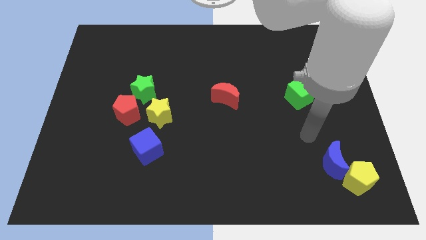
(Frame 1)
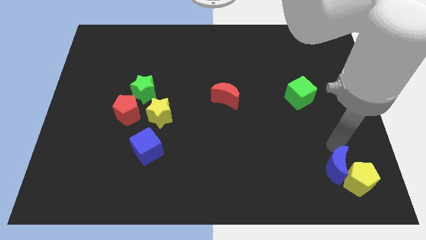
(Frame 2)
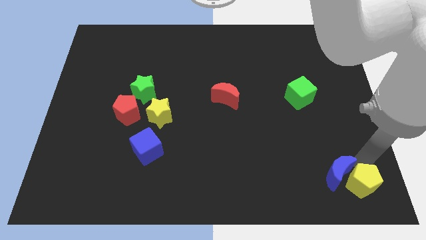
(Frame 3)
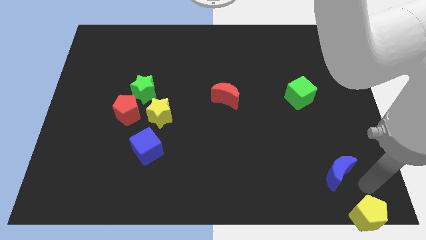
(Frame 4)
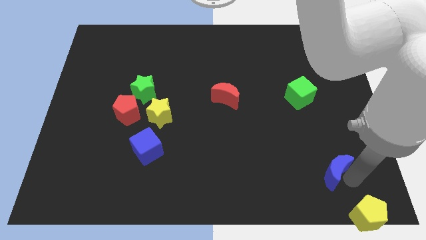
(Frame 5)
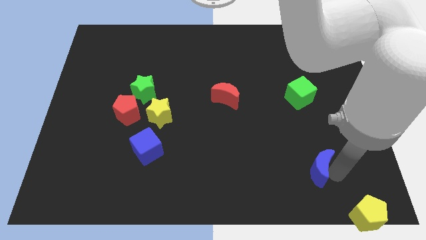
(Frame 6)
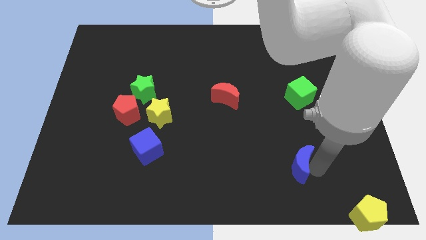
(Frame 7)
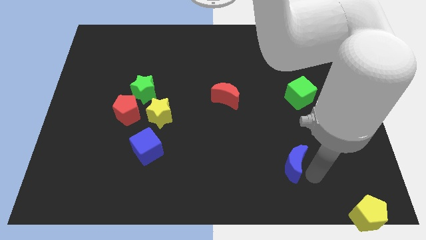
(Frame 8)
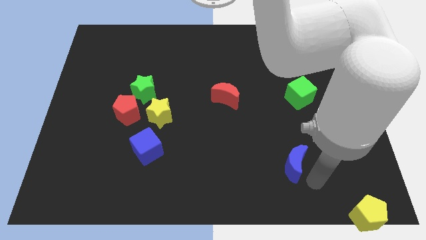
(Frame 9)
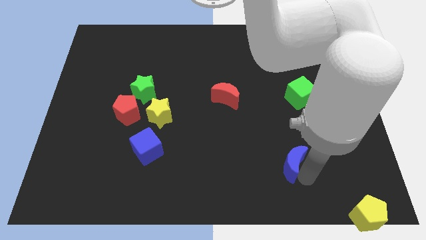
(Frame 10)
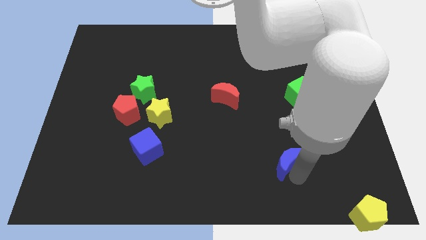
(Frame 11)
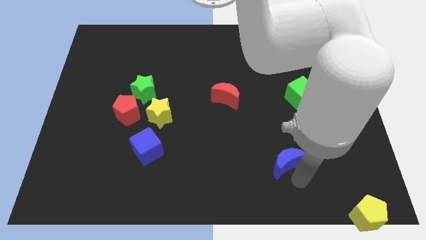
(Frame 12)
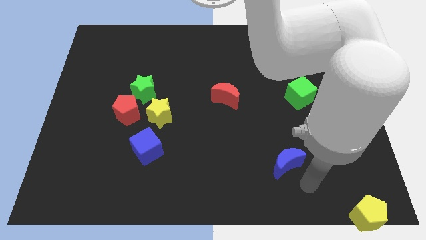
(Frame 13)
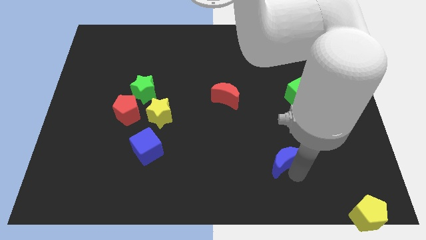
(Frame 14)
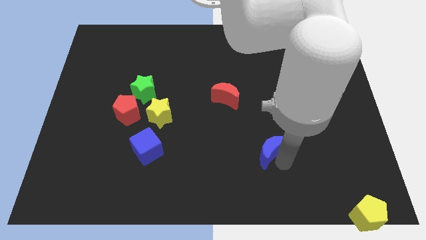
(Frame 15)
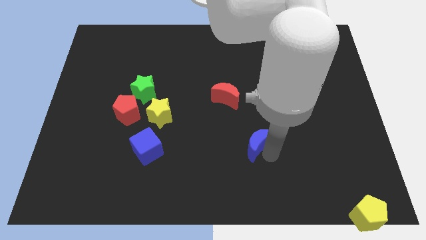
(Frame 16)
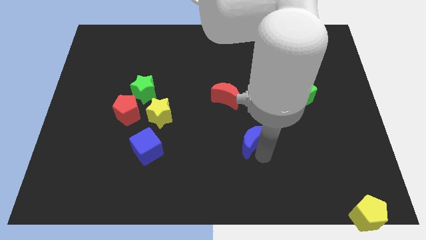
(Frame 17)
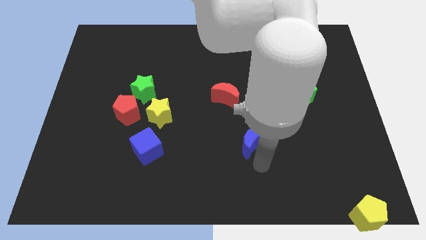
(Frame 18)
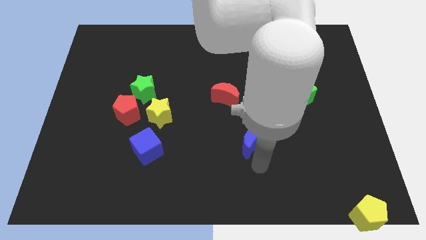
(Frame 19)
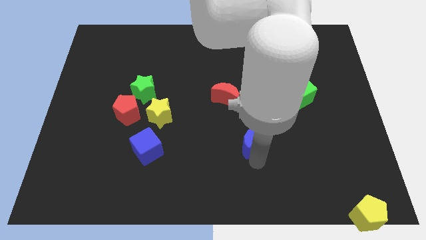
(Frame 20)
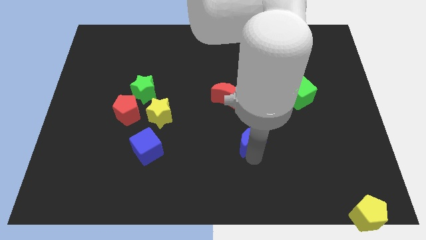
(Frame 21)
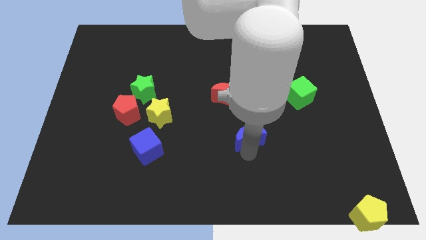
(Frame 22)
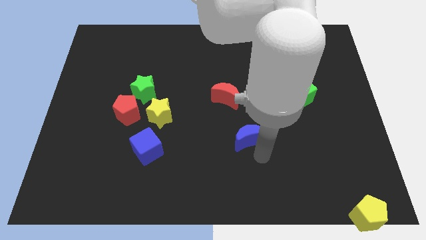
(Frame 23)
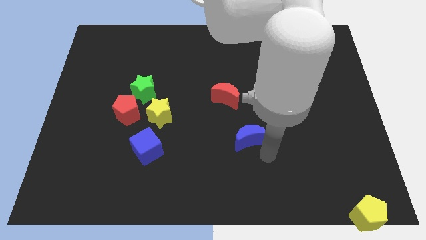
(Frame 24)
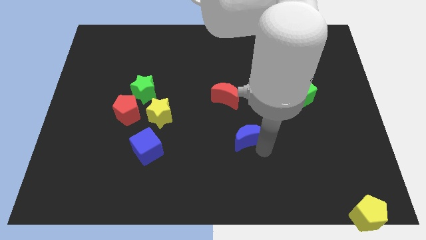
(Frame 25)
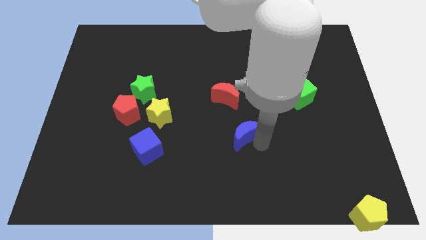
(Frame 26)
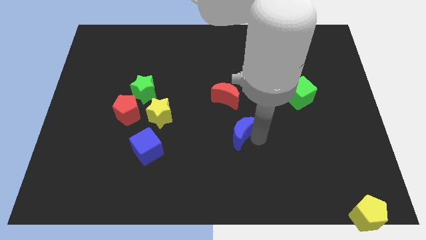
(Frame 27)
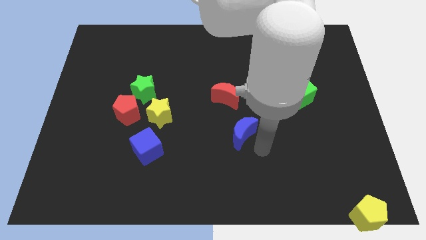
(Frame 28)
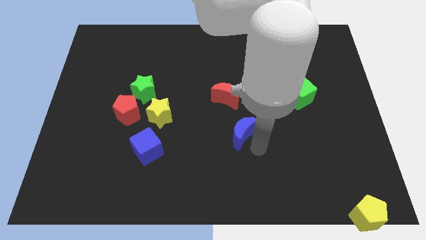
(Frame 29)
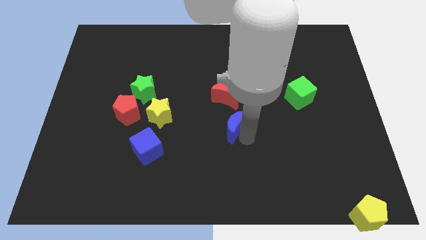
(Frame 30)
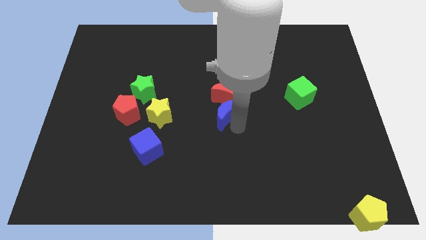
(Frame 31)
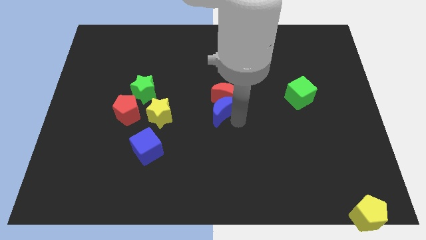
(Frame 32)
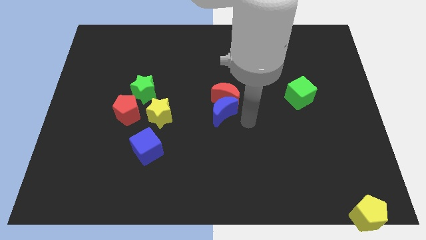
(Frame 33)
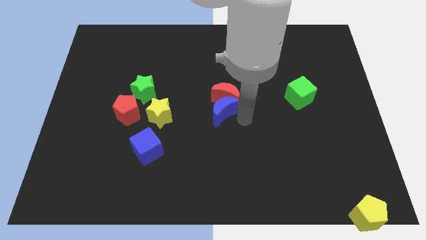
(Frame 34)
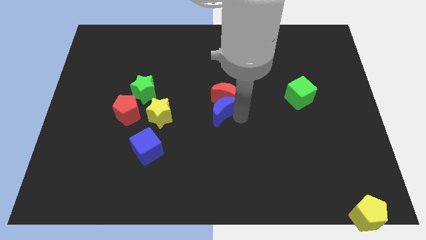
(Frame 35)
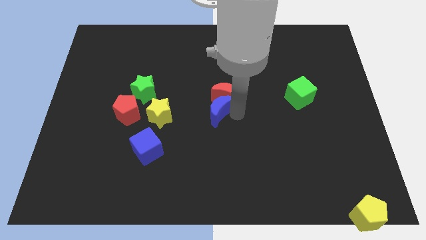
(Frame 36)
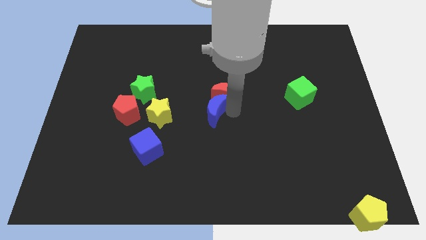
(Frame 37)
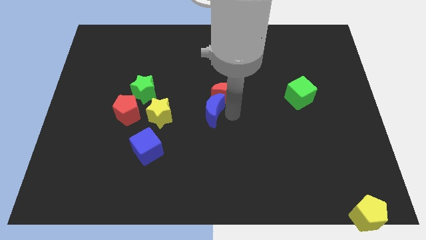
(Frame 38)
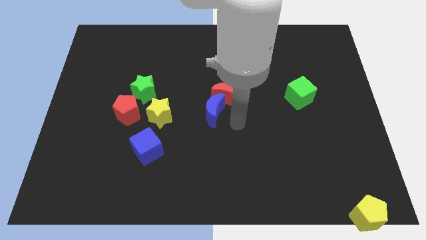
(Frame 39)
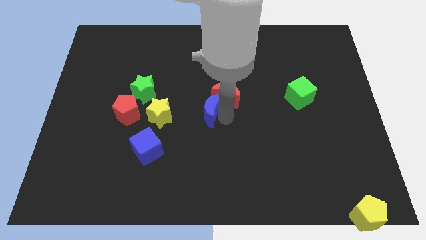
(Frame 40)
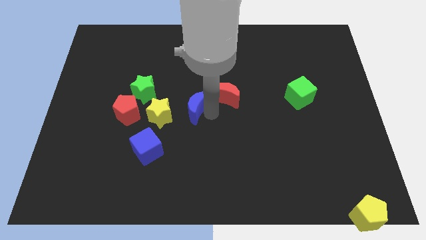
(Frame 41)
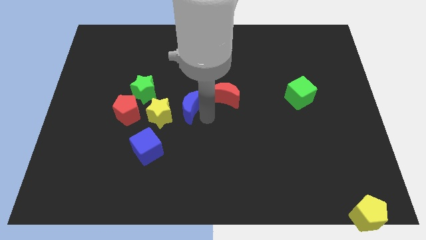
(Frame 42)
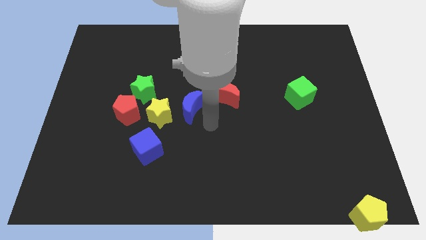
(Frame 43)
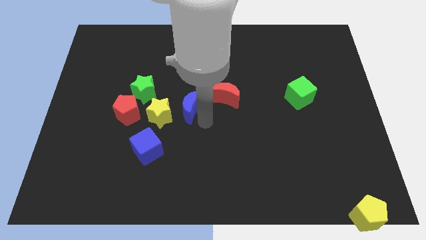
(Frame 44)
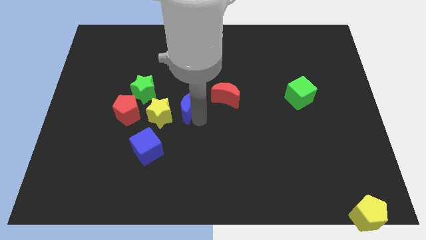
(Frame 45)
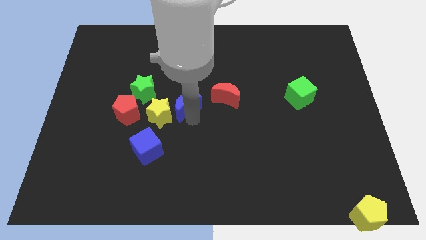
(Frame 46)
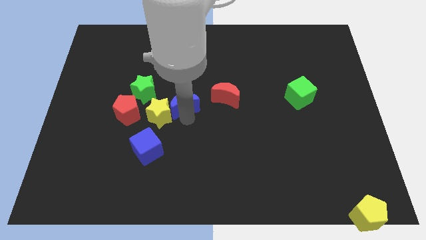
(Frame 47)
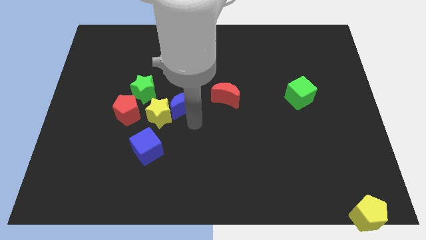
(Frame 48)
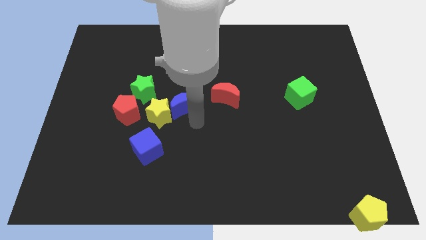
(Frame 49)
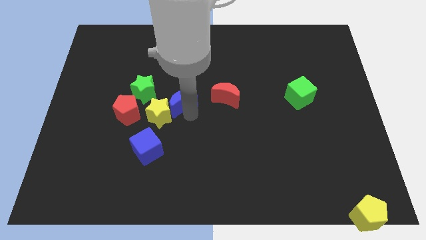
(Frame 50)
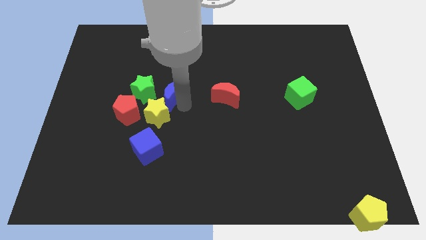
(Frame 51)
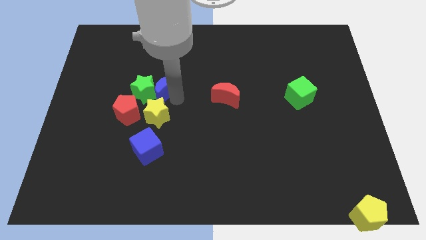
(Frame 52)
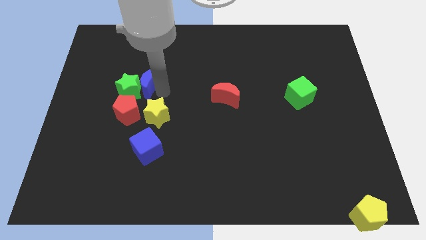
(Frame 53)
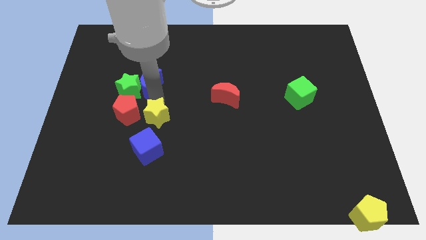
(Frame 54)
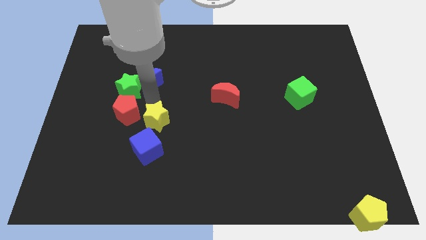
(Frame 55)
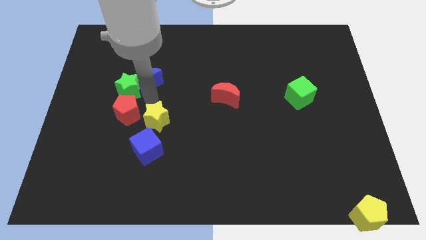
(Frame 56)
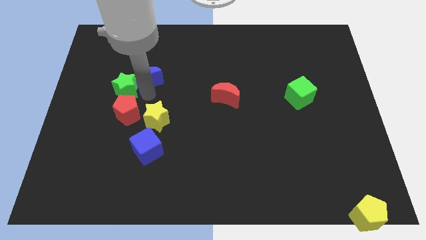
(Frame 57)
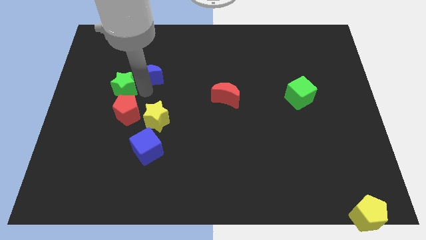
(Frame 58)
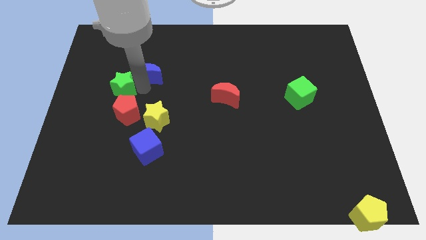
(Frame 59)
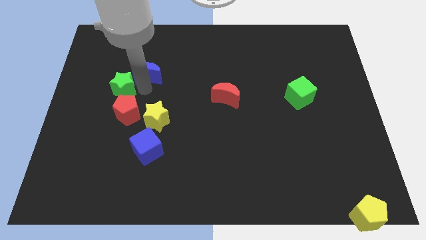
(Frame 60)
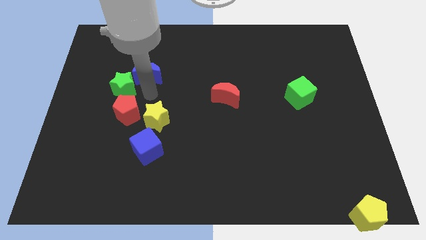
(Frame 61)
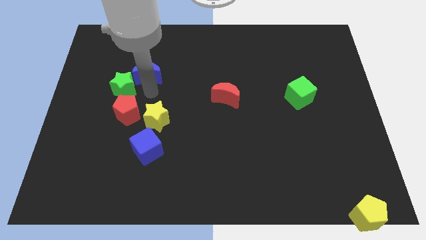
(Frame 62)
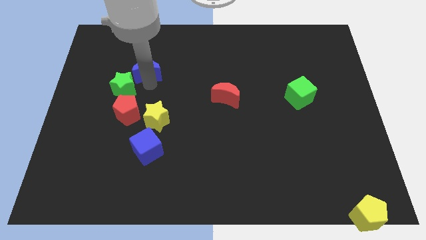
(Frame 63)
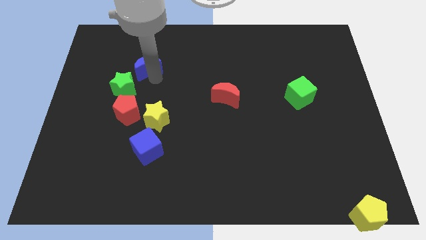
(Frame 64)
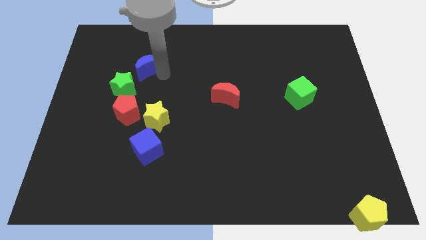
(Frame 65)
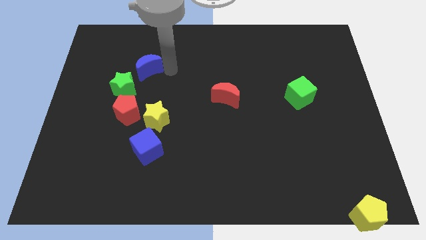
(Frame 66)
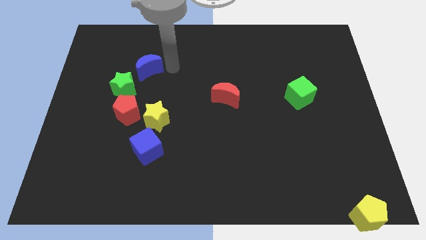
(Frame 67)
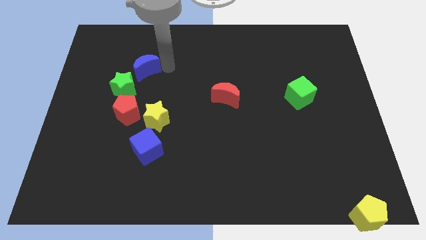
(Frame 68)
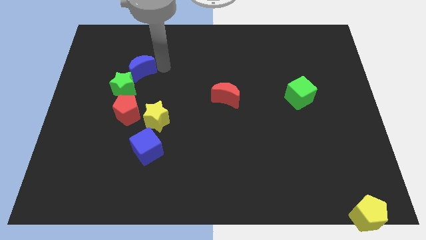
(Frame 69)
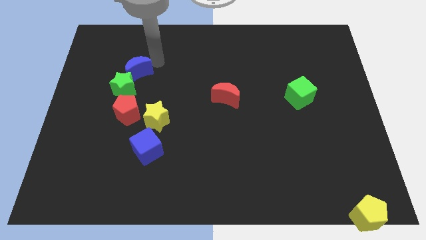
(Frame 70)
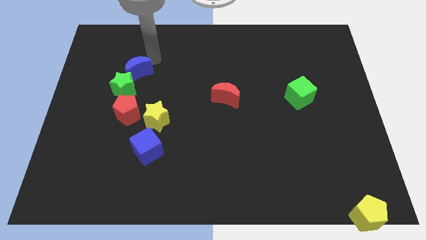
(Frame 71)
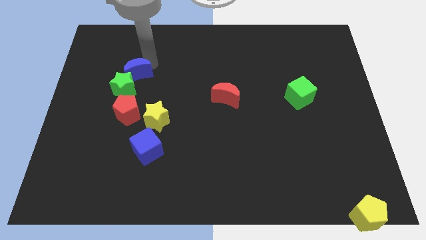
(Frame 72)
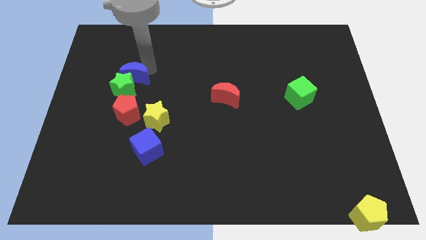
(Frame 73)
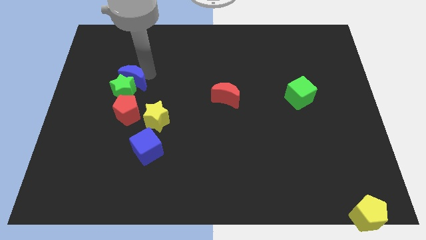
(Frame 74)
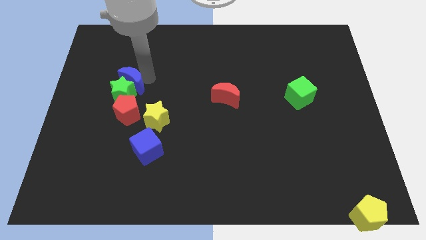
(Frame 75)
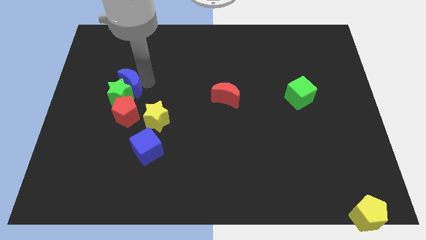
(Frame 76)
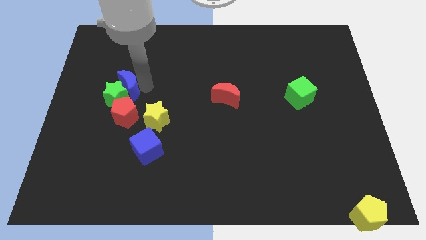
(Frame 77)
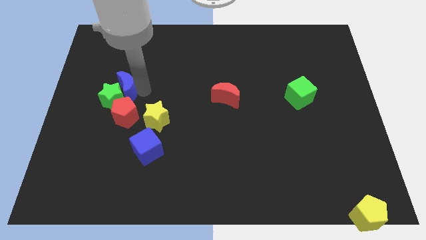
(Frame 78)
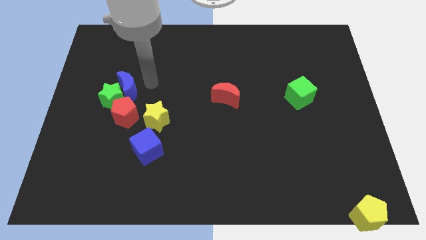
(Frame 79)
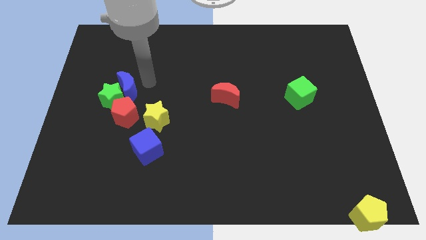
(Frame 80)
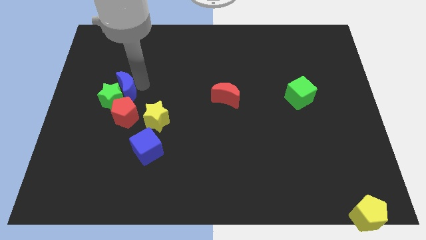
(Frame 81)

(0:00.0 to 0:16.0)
move the blue moon to the top left of the red pentagon
